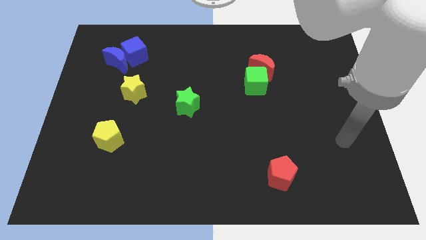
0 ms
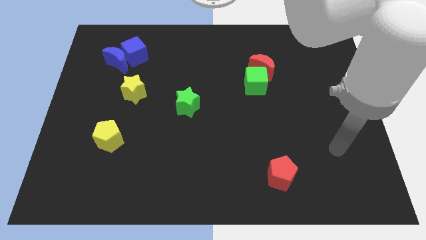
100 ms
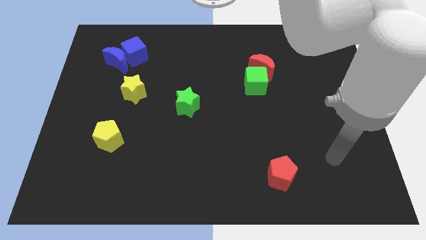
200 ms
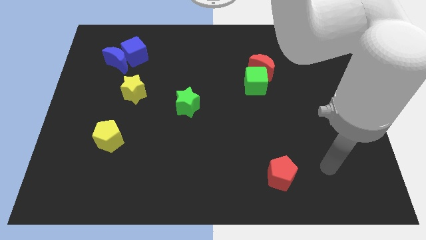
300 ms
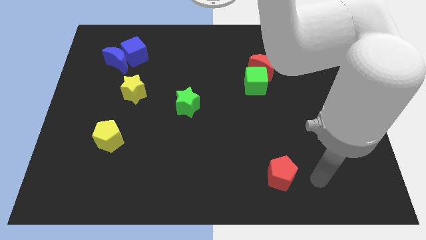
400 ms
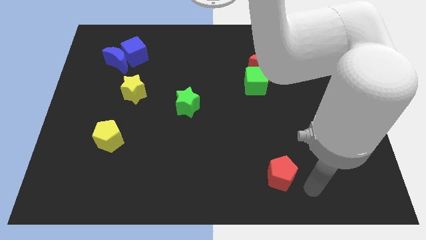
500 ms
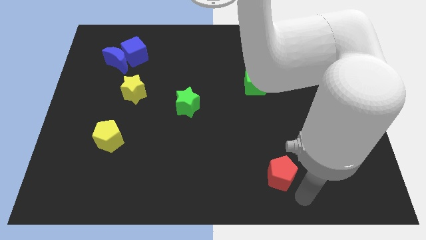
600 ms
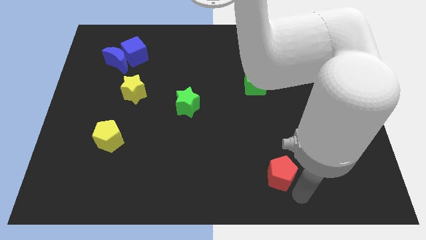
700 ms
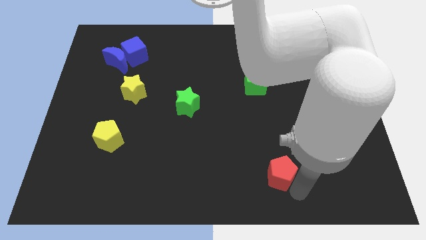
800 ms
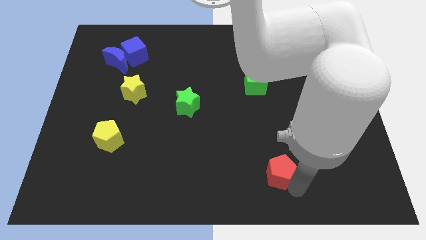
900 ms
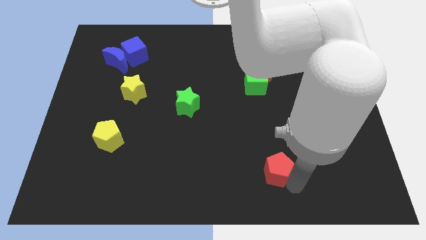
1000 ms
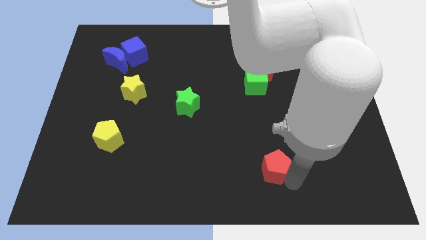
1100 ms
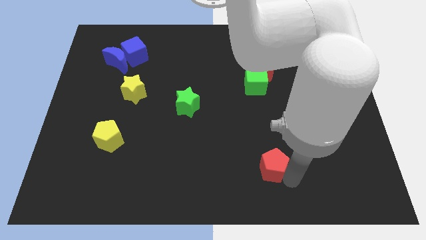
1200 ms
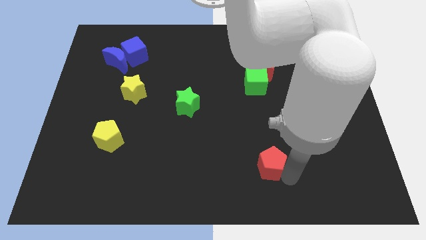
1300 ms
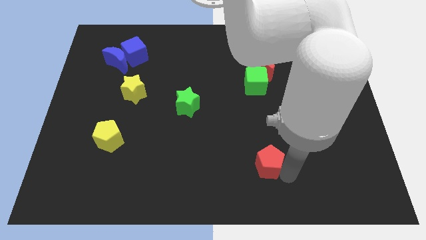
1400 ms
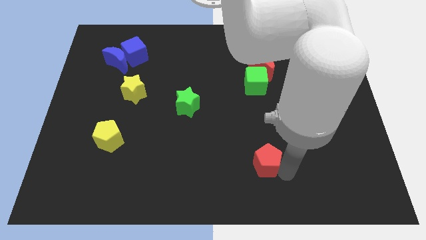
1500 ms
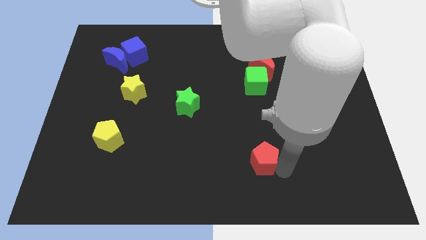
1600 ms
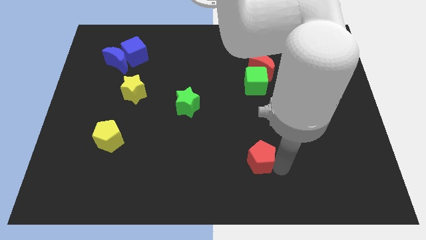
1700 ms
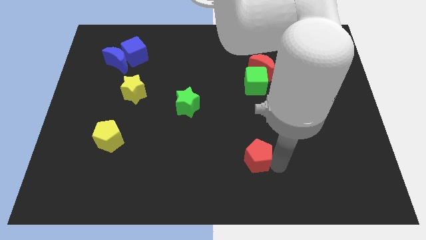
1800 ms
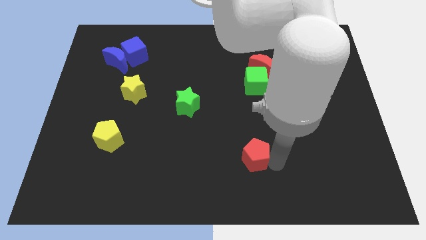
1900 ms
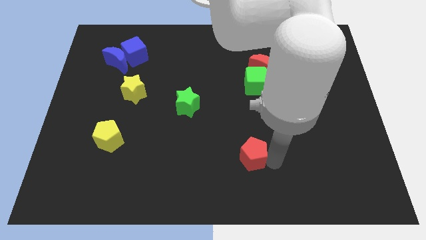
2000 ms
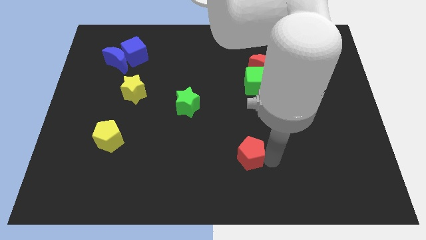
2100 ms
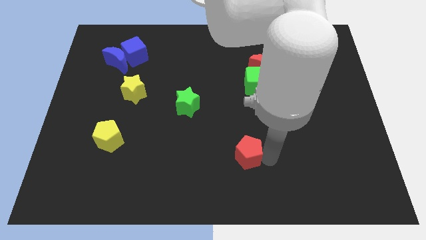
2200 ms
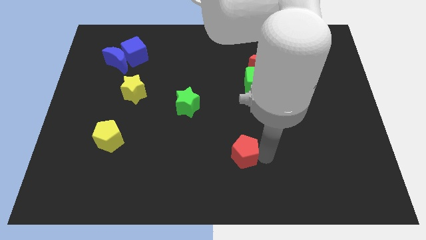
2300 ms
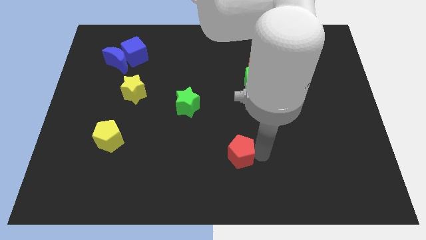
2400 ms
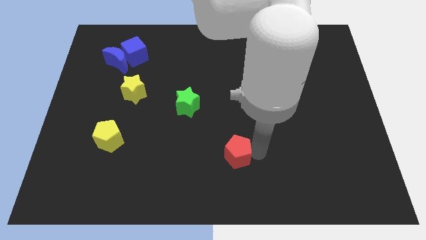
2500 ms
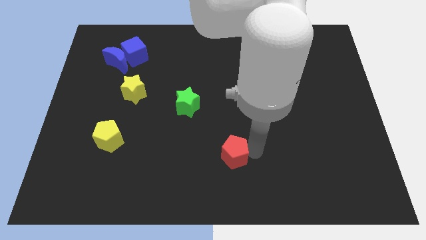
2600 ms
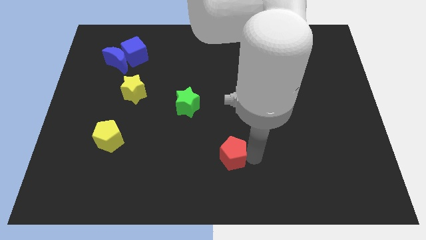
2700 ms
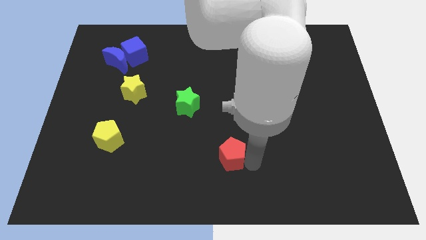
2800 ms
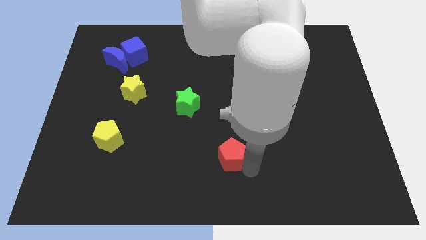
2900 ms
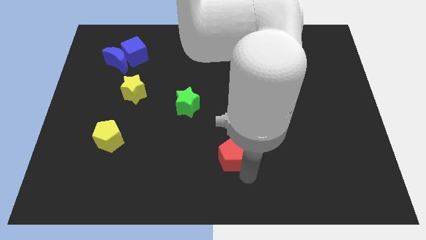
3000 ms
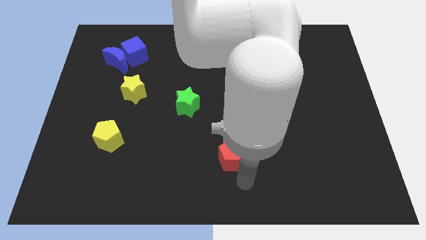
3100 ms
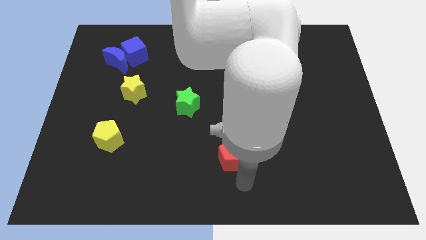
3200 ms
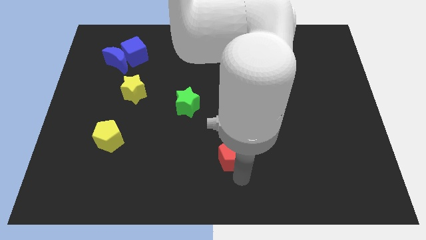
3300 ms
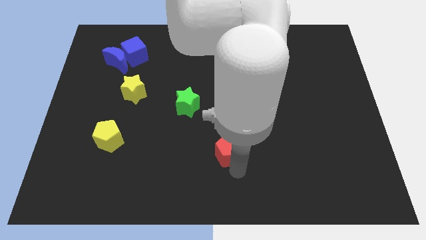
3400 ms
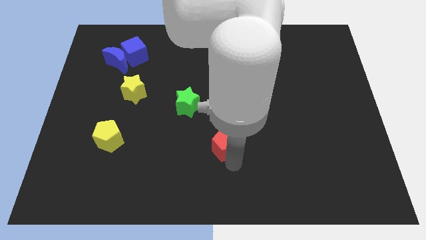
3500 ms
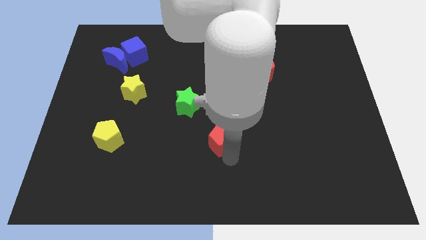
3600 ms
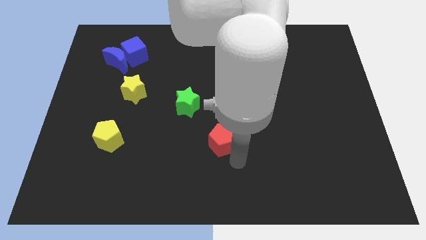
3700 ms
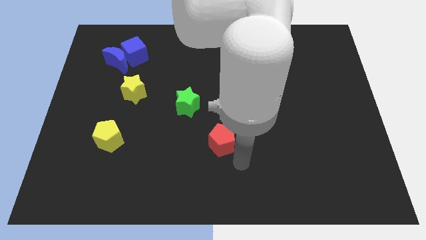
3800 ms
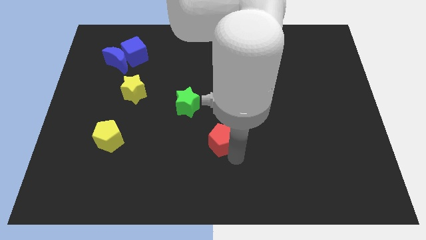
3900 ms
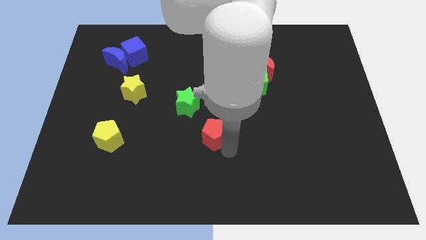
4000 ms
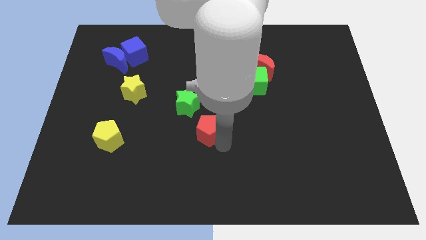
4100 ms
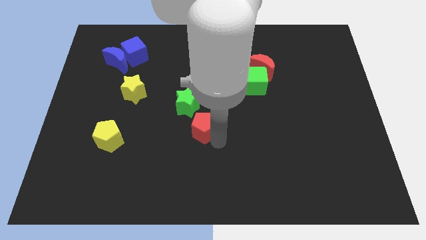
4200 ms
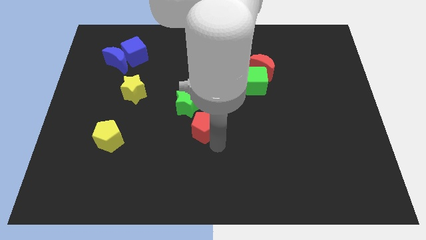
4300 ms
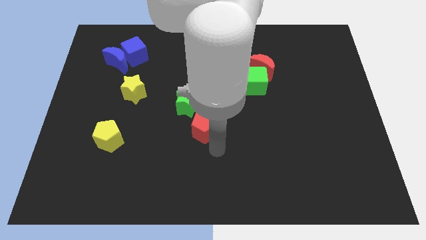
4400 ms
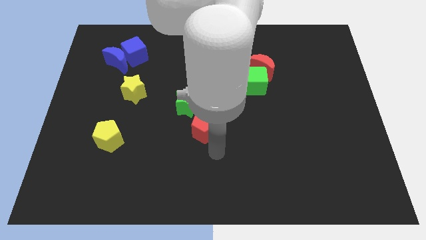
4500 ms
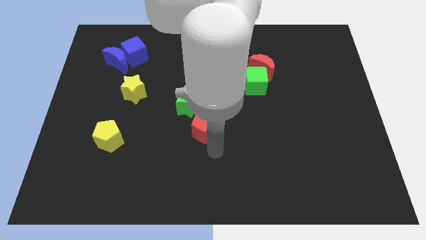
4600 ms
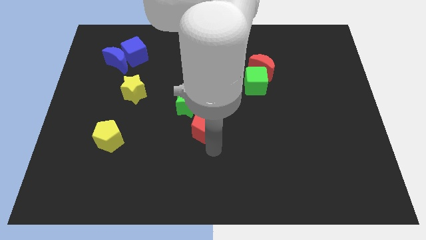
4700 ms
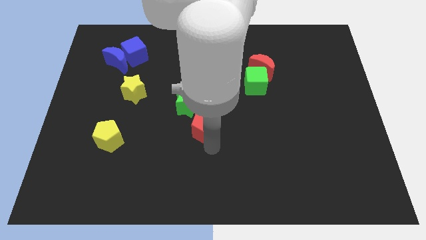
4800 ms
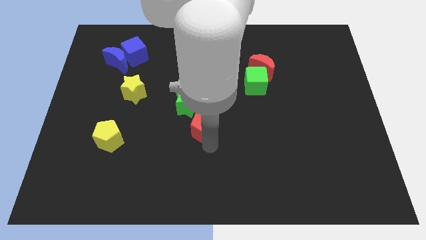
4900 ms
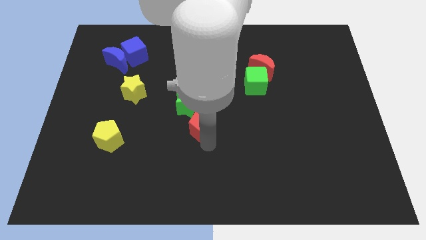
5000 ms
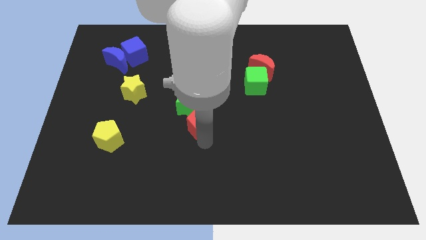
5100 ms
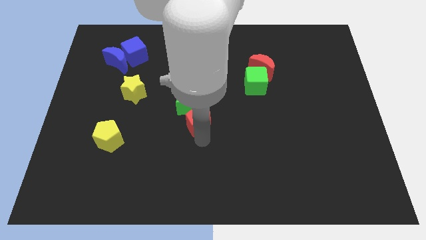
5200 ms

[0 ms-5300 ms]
push the red pentagon to the green star

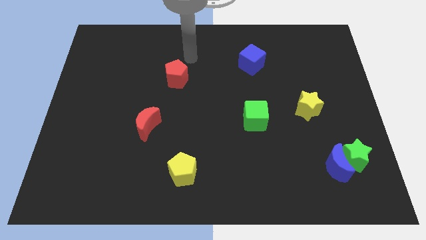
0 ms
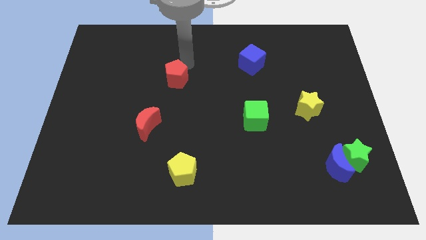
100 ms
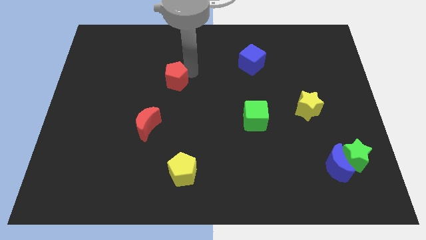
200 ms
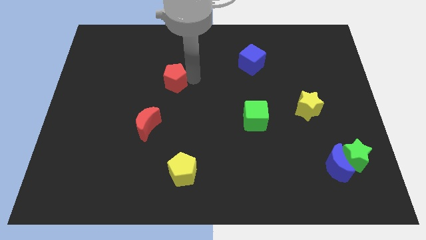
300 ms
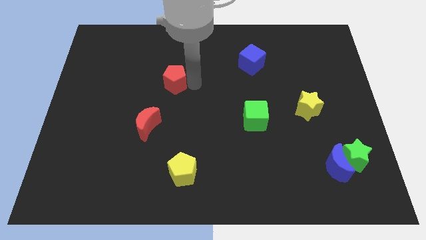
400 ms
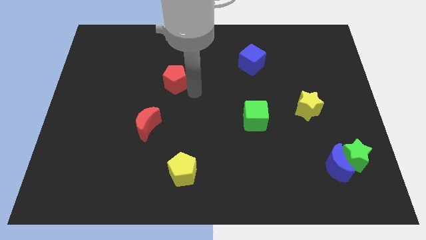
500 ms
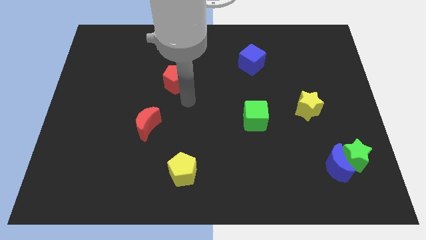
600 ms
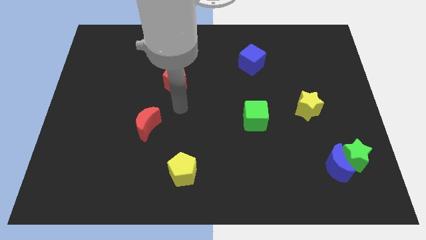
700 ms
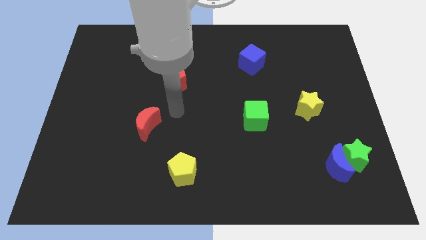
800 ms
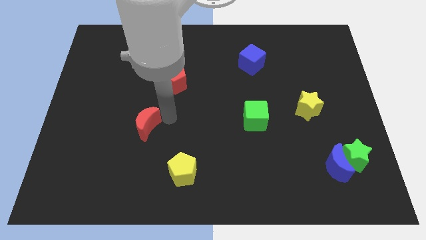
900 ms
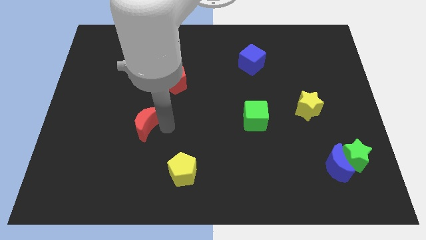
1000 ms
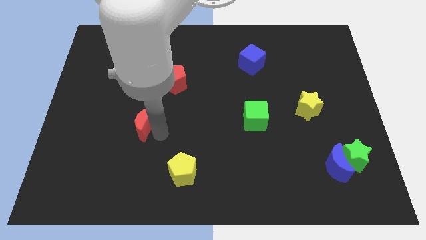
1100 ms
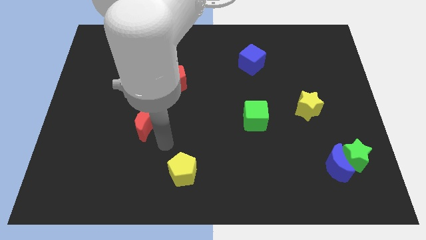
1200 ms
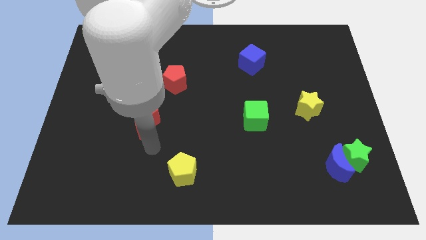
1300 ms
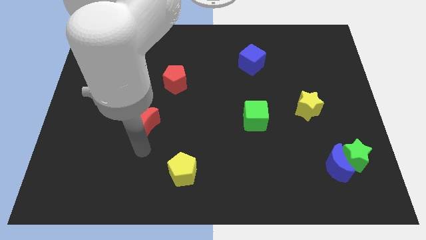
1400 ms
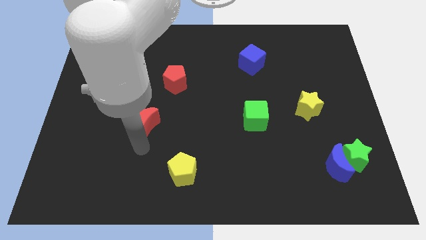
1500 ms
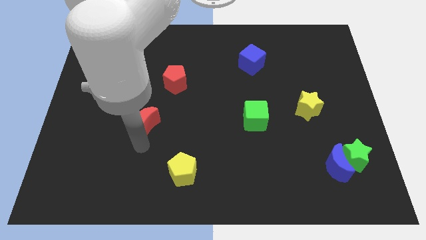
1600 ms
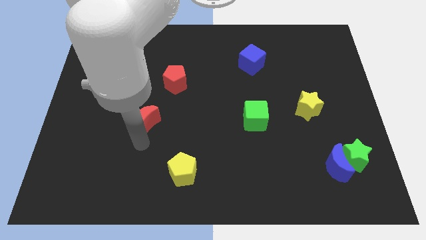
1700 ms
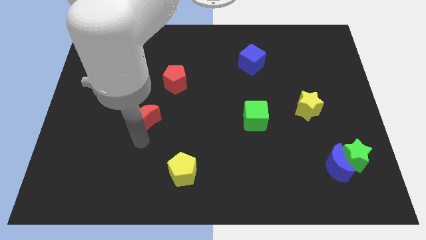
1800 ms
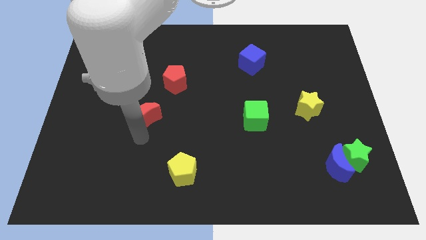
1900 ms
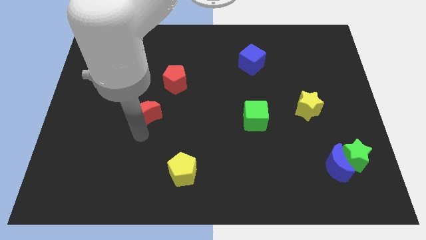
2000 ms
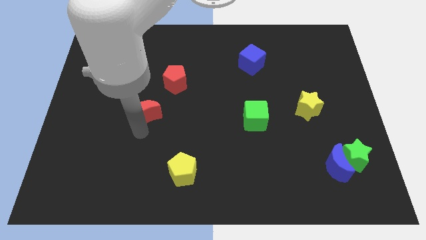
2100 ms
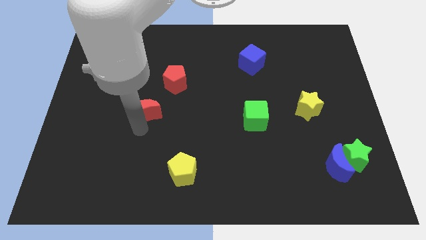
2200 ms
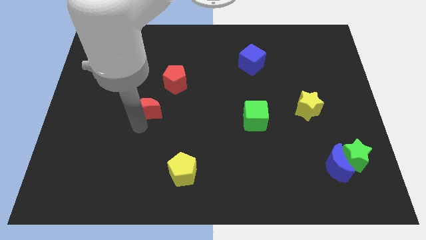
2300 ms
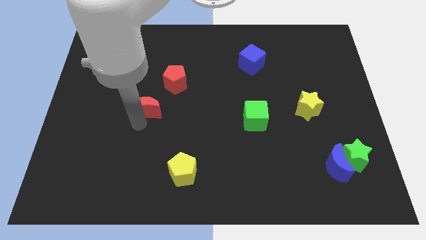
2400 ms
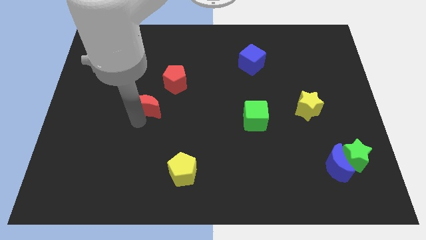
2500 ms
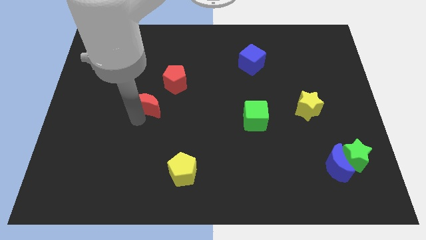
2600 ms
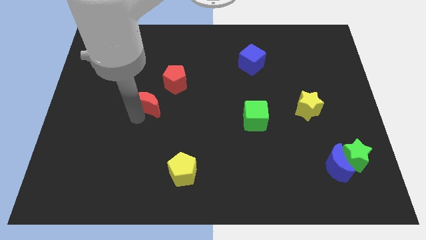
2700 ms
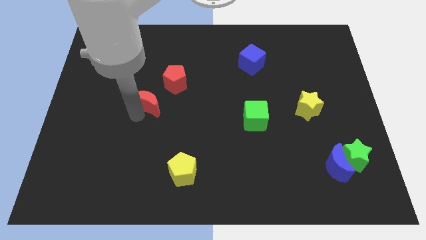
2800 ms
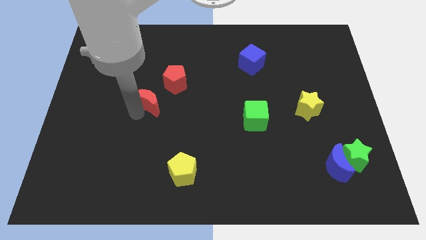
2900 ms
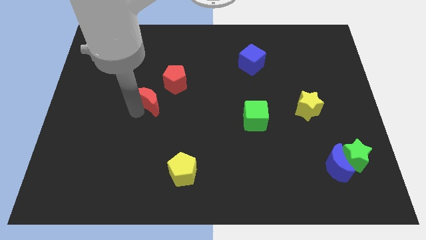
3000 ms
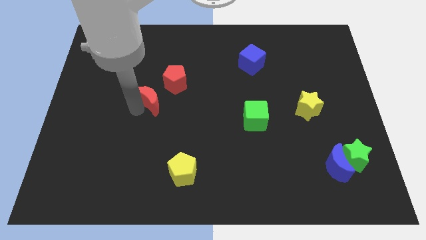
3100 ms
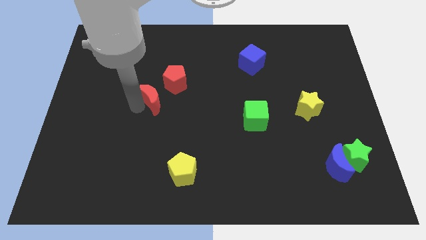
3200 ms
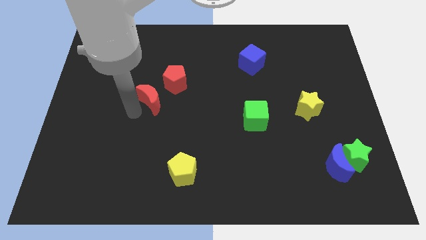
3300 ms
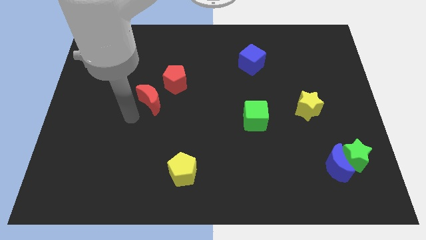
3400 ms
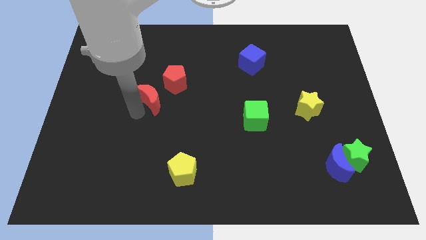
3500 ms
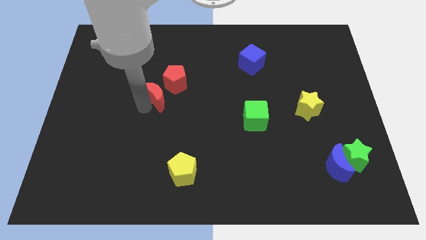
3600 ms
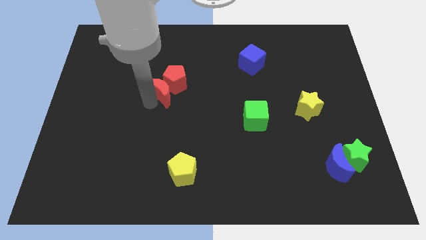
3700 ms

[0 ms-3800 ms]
push the red moon towards the red pentagon
